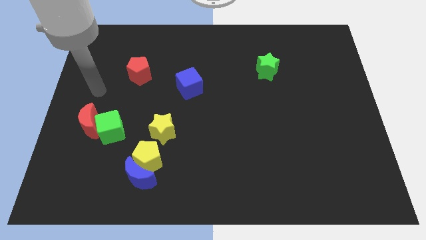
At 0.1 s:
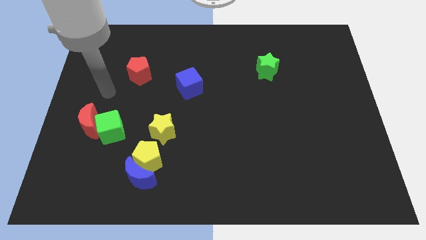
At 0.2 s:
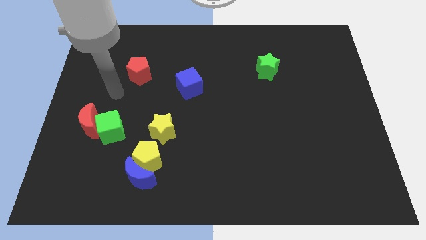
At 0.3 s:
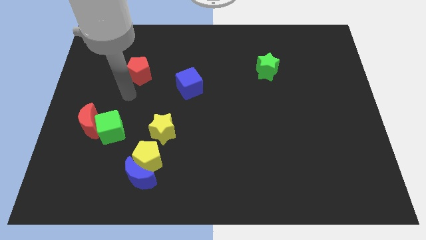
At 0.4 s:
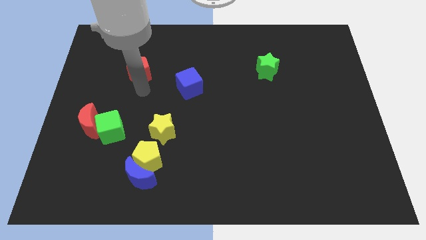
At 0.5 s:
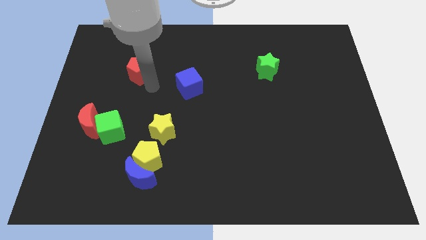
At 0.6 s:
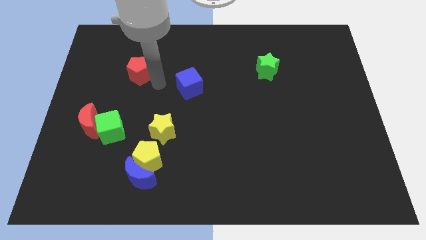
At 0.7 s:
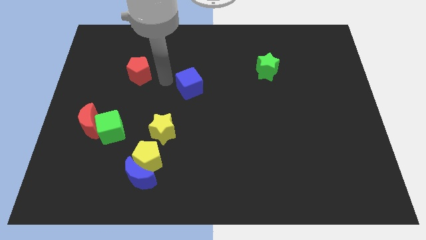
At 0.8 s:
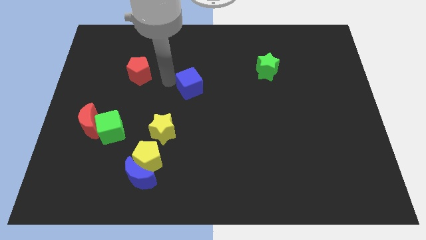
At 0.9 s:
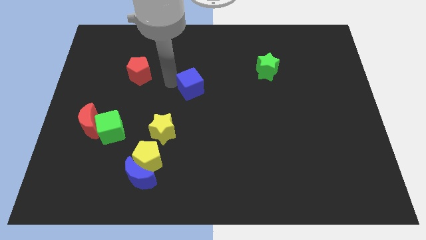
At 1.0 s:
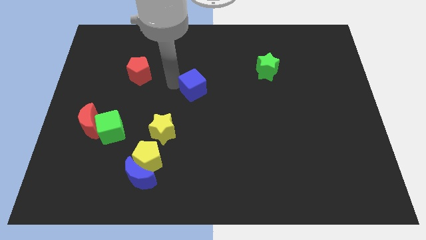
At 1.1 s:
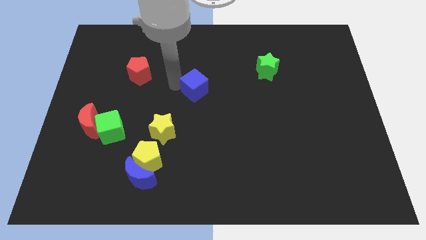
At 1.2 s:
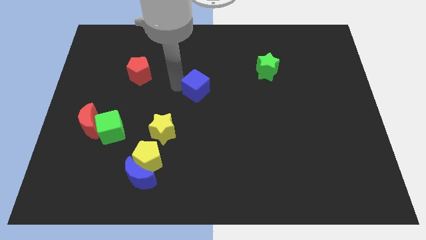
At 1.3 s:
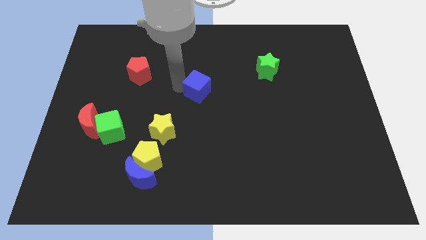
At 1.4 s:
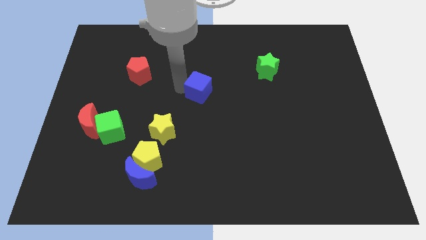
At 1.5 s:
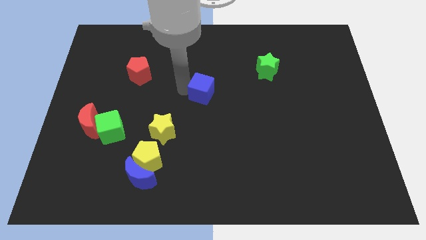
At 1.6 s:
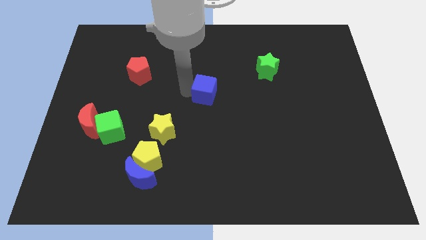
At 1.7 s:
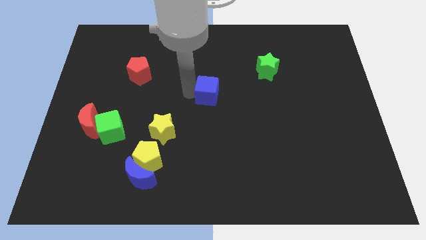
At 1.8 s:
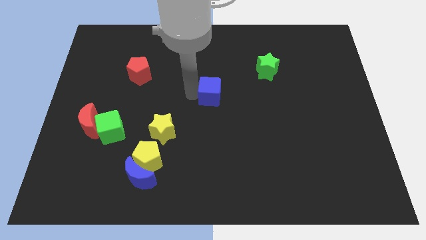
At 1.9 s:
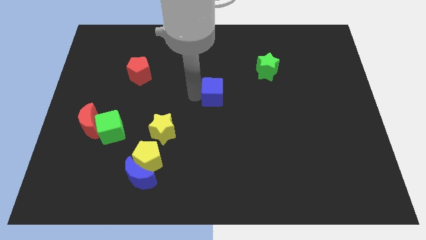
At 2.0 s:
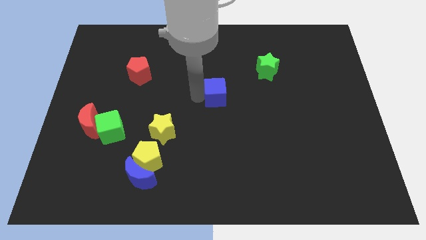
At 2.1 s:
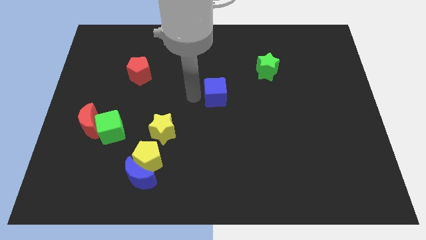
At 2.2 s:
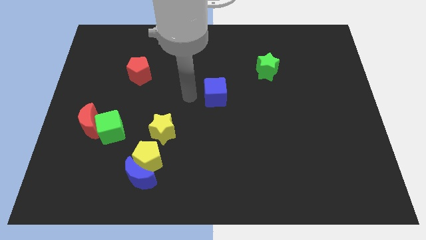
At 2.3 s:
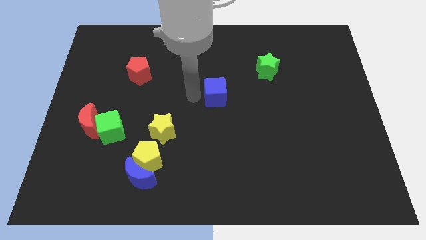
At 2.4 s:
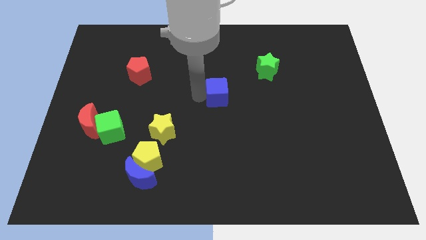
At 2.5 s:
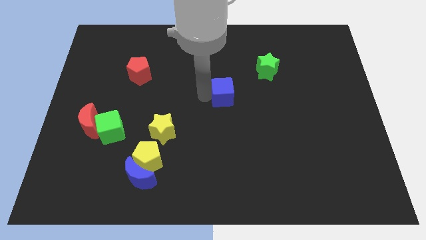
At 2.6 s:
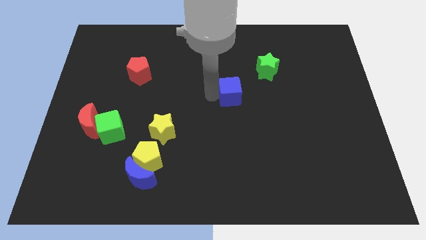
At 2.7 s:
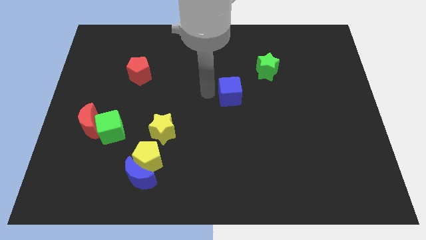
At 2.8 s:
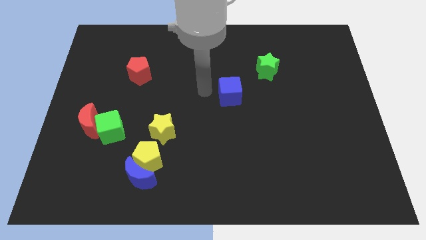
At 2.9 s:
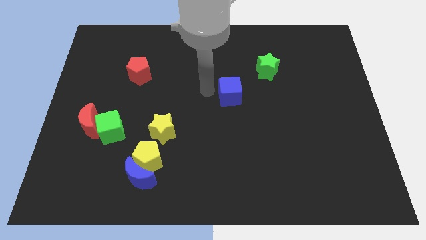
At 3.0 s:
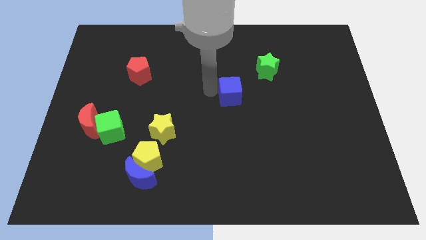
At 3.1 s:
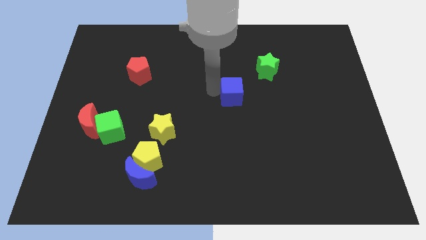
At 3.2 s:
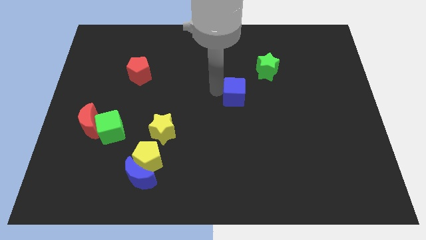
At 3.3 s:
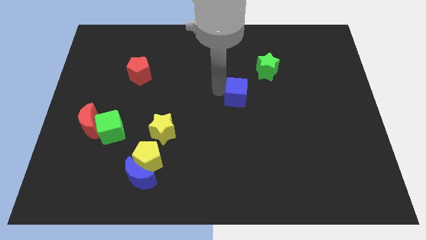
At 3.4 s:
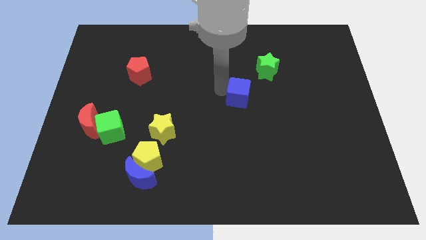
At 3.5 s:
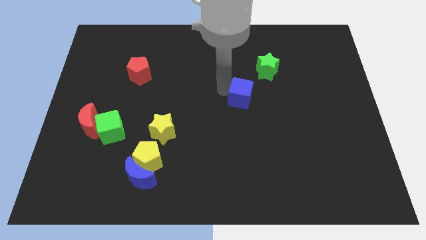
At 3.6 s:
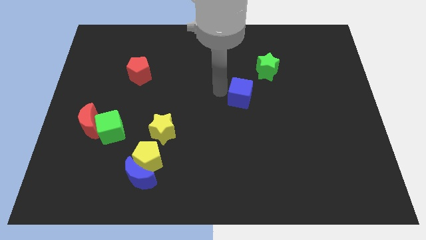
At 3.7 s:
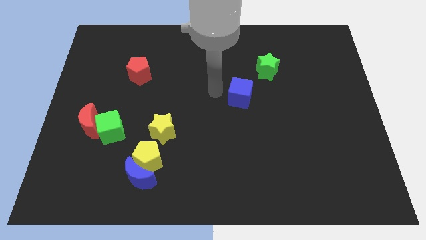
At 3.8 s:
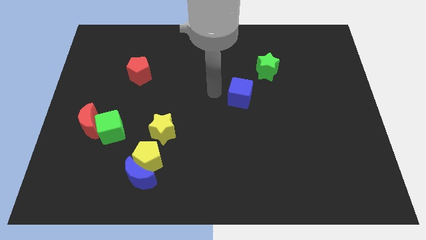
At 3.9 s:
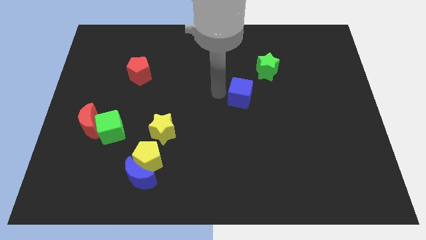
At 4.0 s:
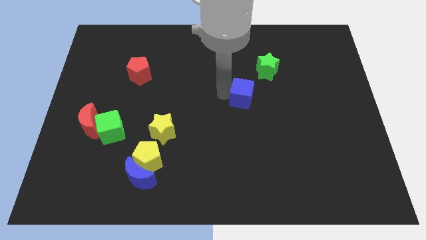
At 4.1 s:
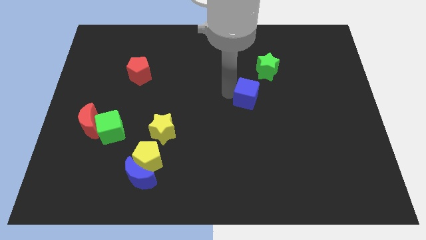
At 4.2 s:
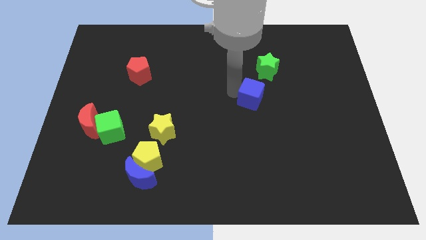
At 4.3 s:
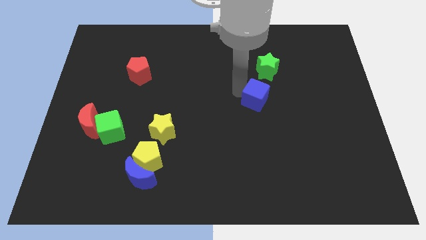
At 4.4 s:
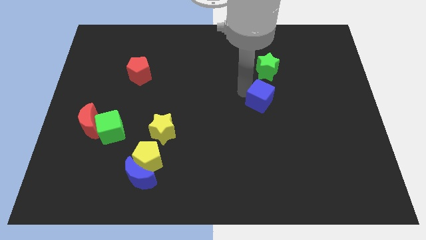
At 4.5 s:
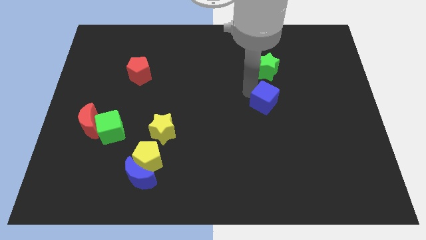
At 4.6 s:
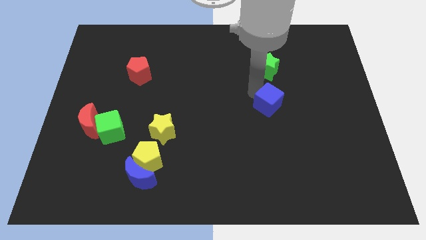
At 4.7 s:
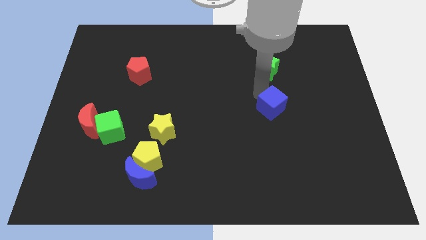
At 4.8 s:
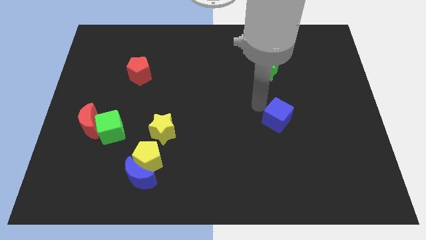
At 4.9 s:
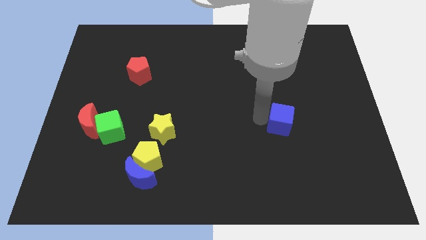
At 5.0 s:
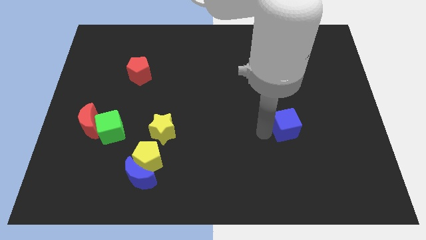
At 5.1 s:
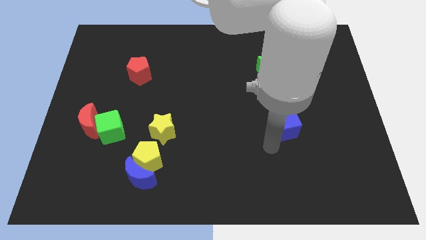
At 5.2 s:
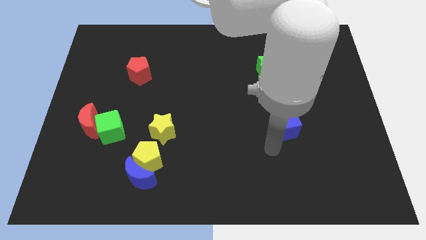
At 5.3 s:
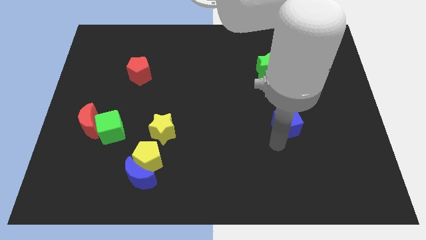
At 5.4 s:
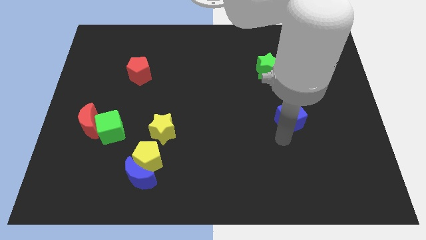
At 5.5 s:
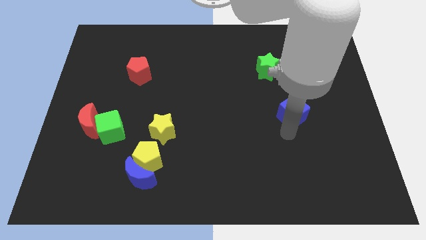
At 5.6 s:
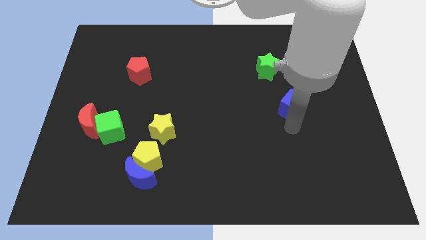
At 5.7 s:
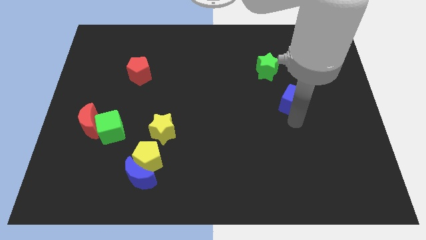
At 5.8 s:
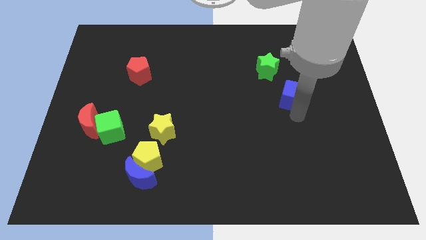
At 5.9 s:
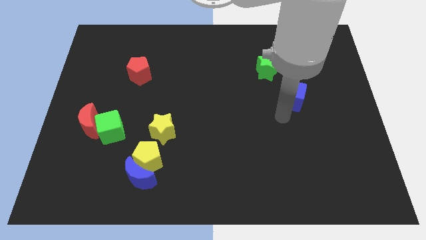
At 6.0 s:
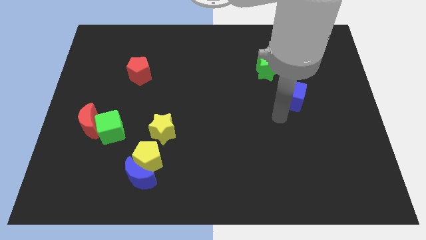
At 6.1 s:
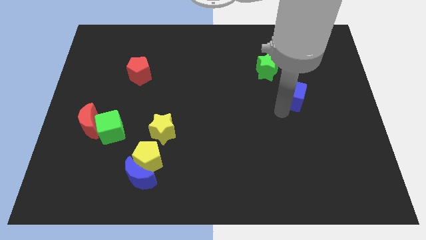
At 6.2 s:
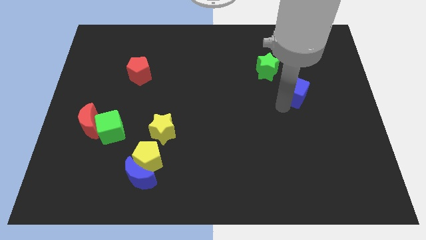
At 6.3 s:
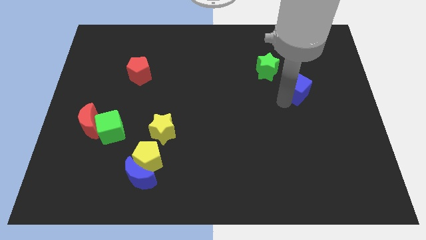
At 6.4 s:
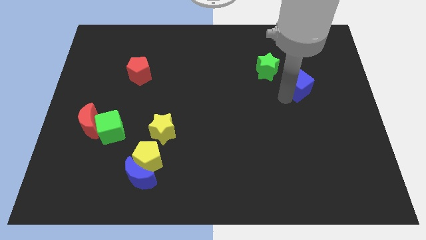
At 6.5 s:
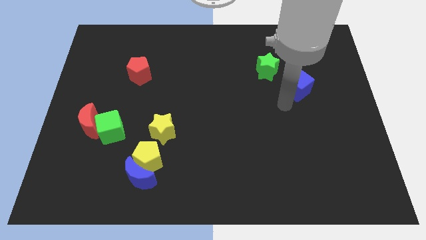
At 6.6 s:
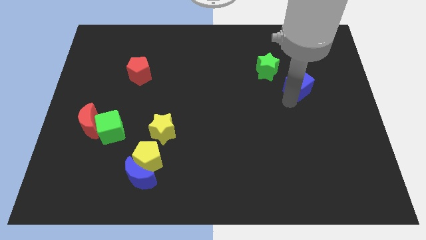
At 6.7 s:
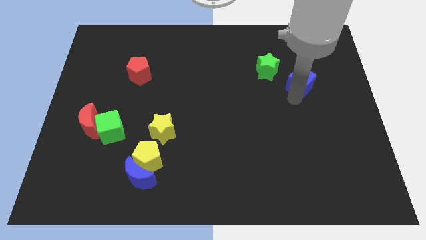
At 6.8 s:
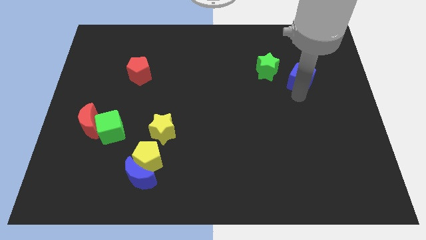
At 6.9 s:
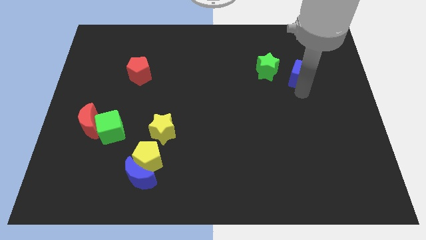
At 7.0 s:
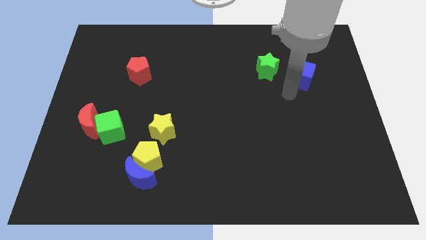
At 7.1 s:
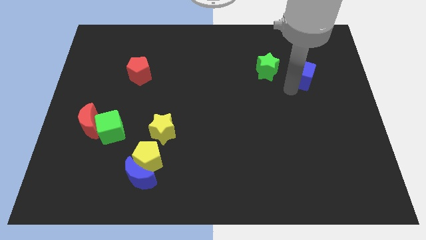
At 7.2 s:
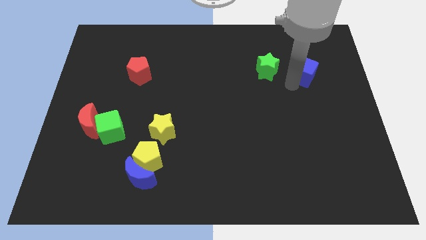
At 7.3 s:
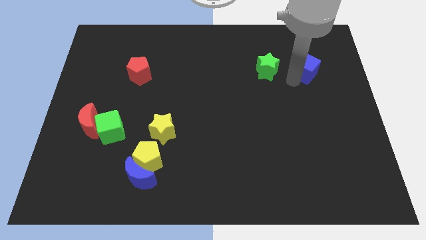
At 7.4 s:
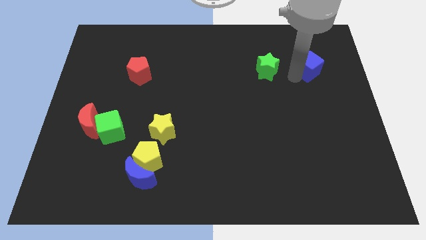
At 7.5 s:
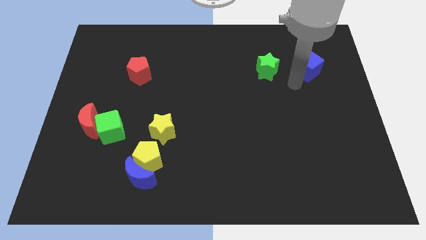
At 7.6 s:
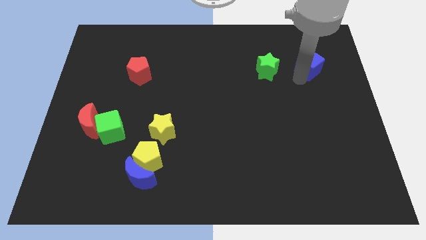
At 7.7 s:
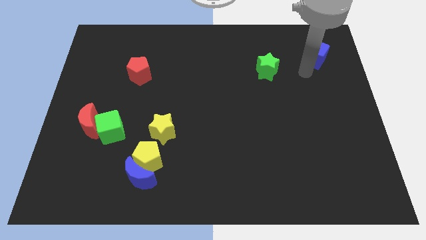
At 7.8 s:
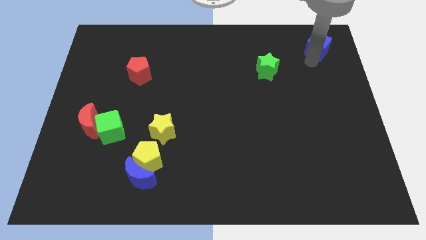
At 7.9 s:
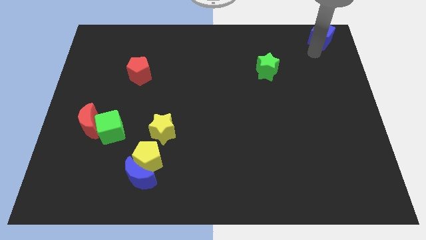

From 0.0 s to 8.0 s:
slide the blue cube to the top right of the board
